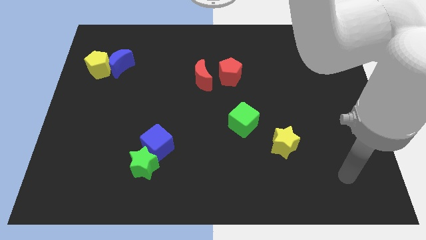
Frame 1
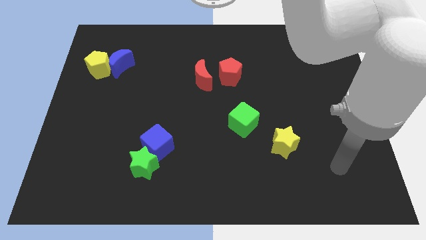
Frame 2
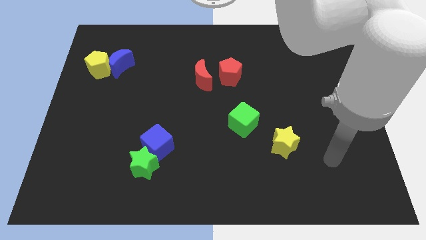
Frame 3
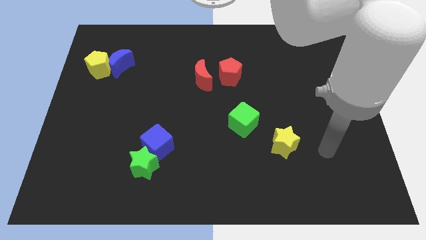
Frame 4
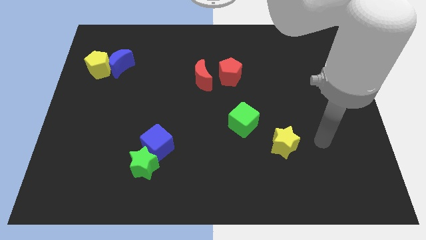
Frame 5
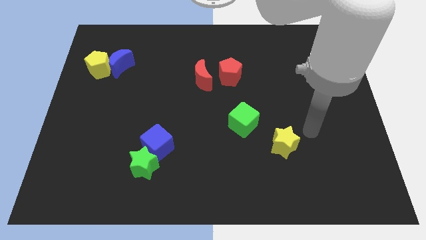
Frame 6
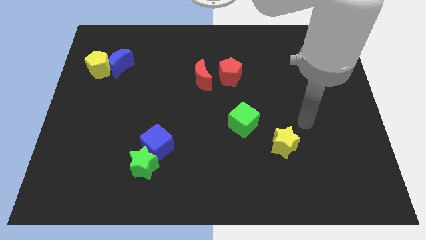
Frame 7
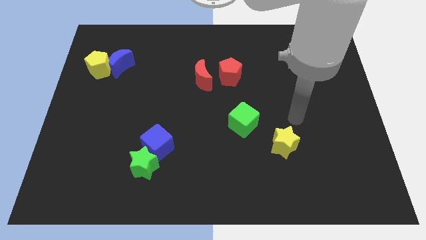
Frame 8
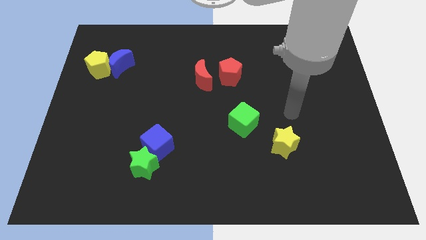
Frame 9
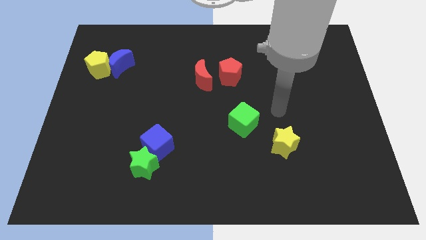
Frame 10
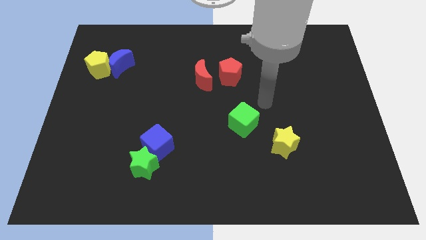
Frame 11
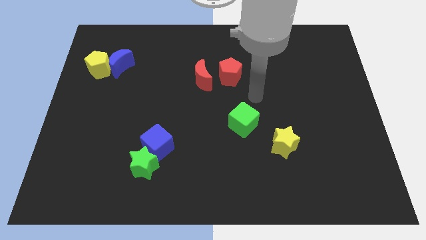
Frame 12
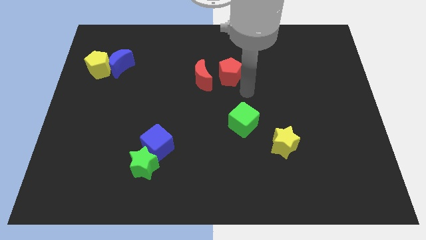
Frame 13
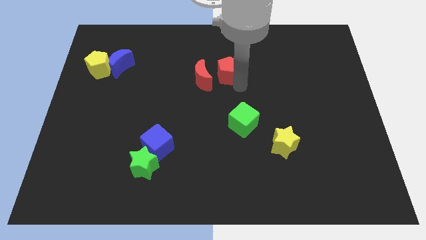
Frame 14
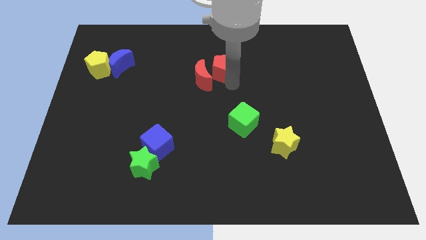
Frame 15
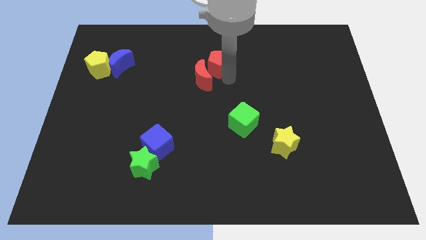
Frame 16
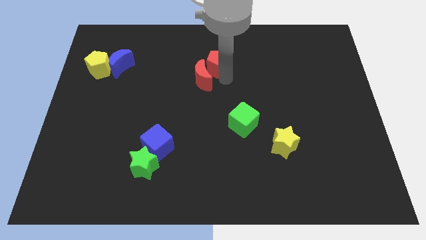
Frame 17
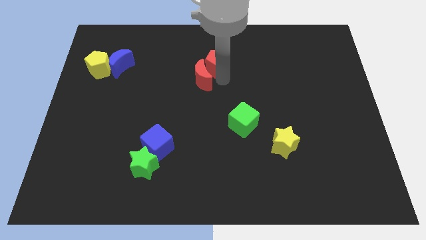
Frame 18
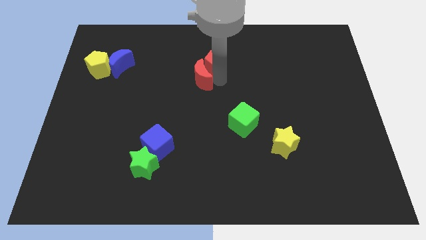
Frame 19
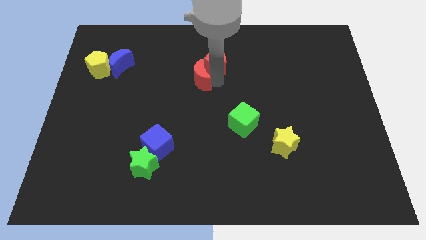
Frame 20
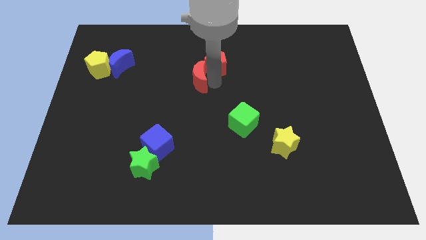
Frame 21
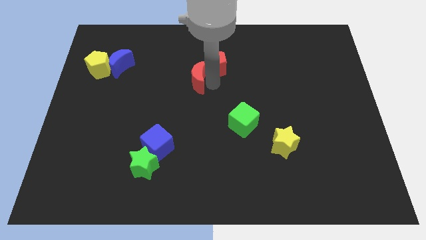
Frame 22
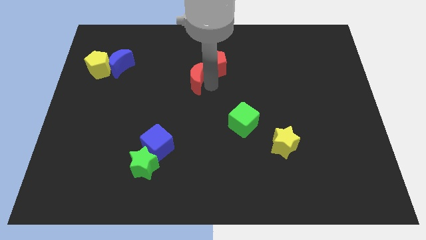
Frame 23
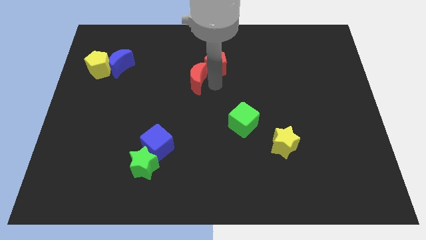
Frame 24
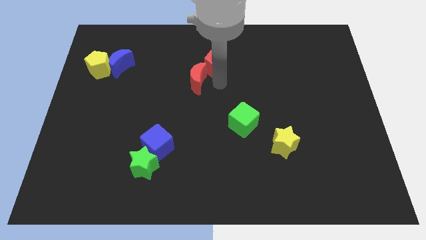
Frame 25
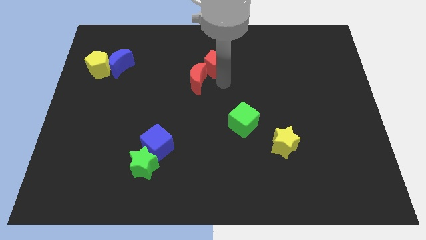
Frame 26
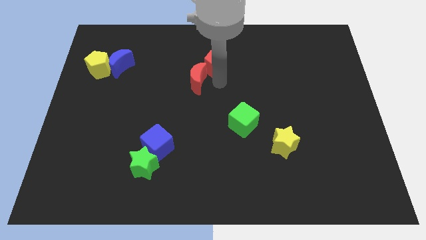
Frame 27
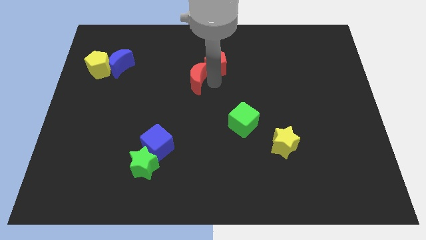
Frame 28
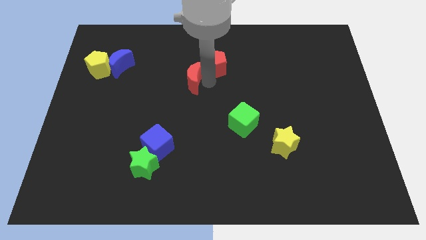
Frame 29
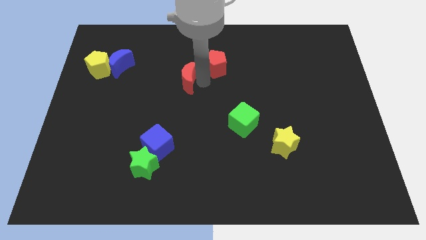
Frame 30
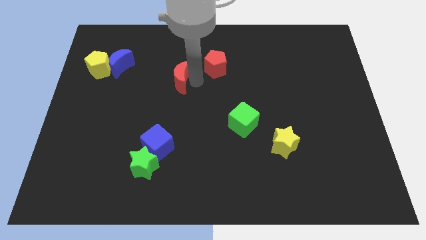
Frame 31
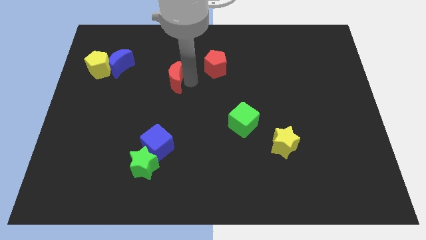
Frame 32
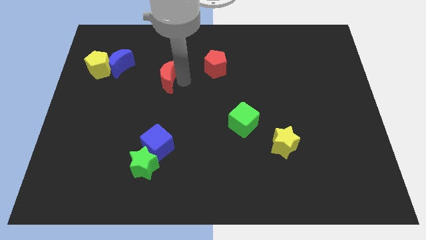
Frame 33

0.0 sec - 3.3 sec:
slightly push the red moon left

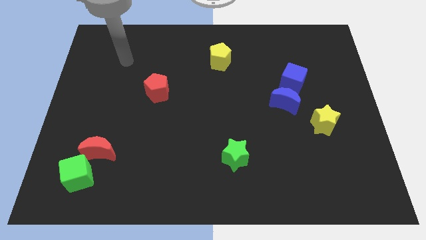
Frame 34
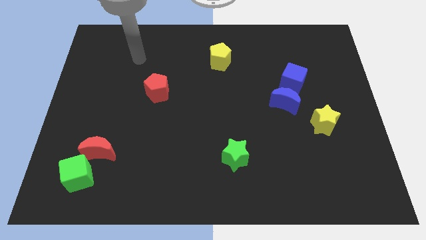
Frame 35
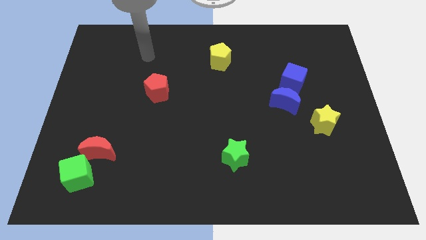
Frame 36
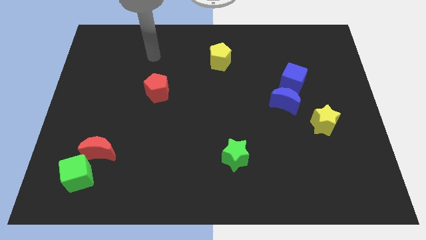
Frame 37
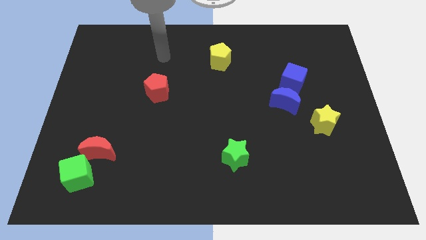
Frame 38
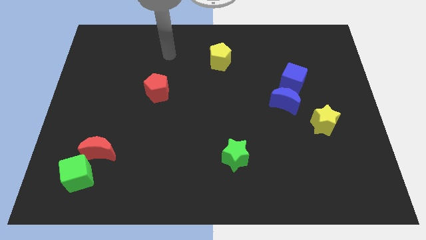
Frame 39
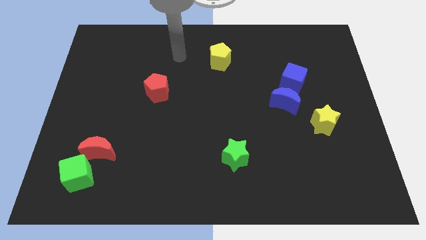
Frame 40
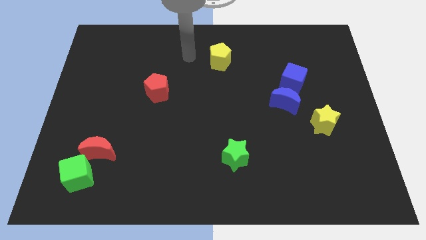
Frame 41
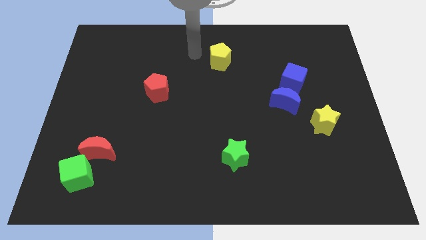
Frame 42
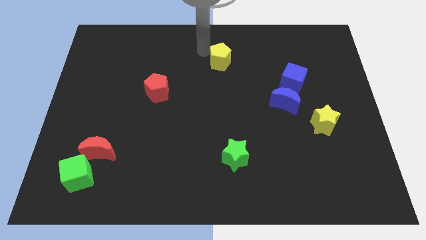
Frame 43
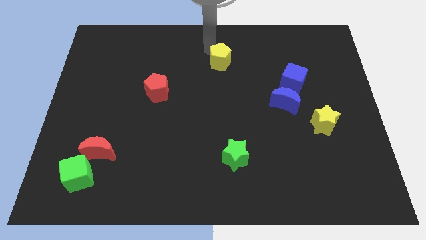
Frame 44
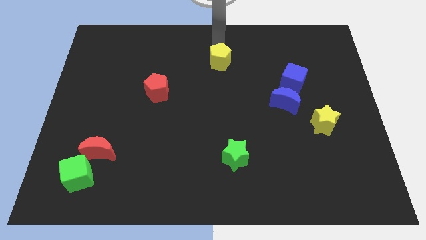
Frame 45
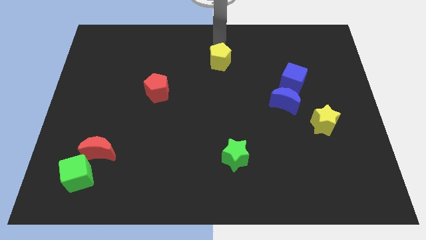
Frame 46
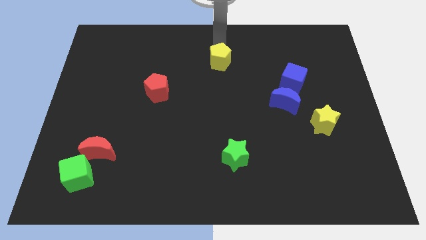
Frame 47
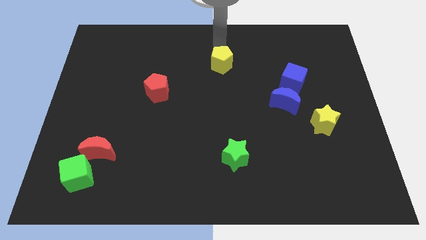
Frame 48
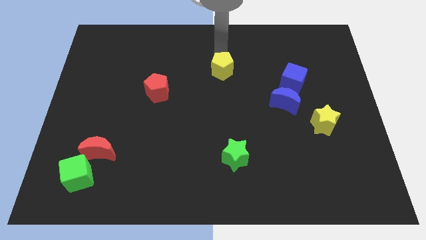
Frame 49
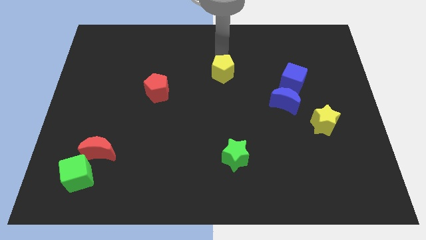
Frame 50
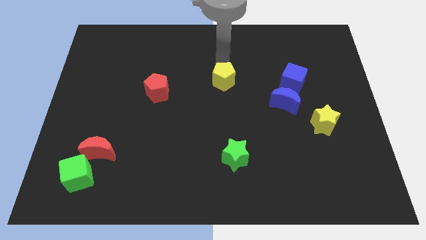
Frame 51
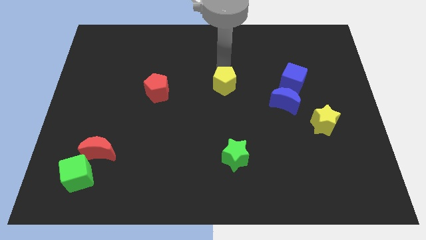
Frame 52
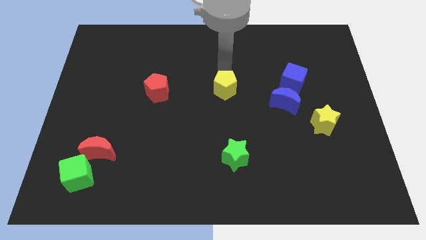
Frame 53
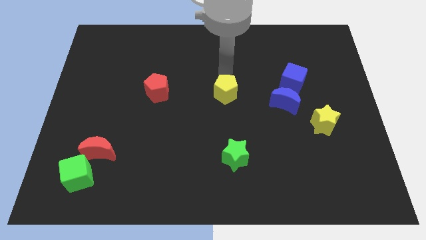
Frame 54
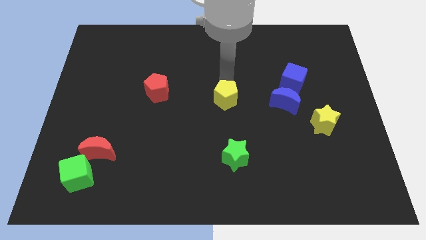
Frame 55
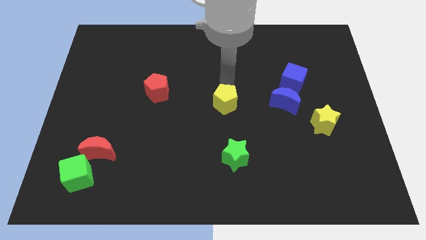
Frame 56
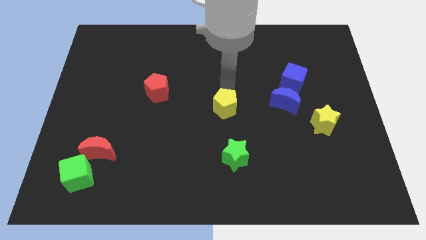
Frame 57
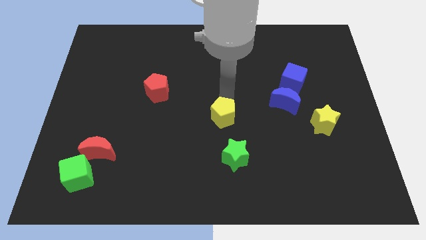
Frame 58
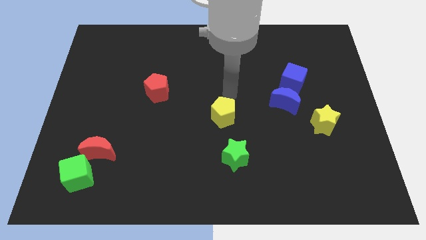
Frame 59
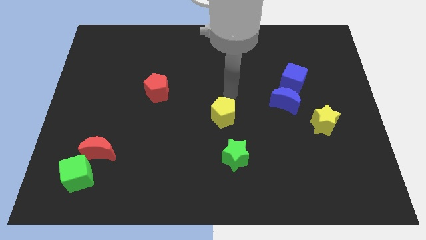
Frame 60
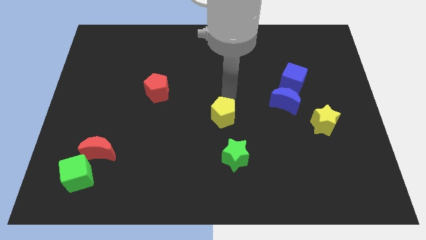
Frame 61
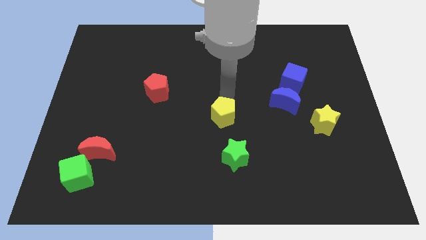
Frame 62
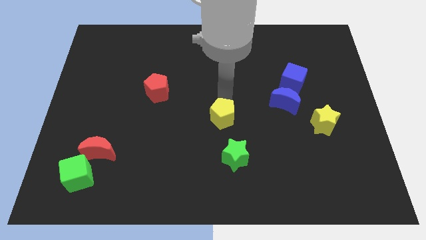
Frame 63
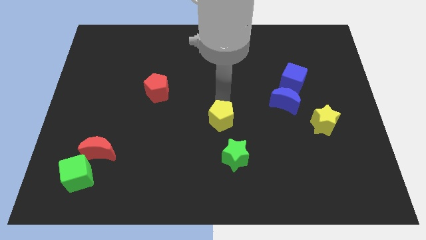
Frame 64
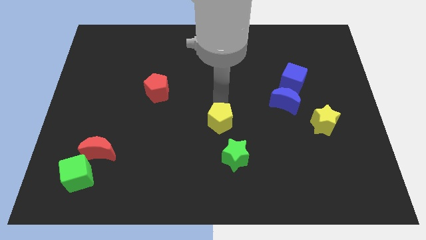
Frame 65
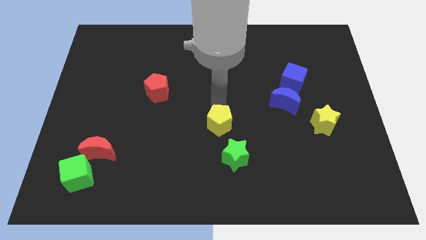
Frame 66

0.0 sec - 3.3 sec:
move the yellow pentagon downwards

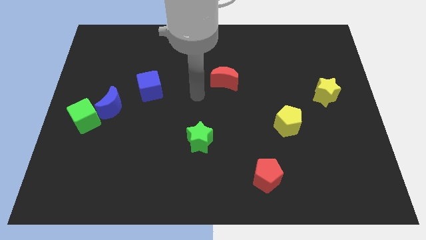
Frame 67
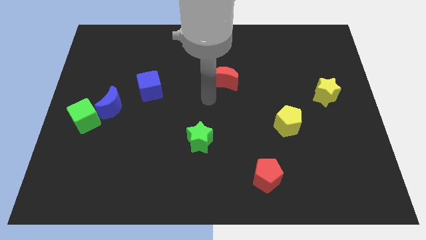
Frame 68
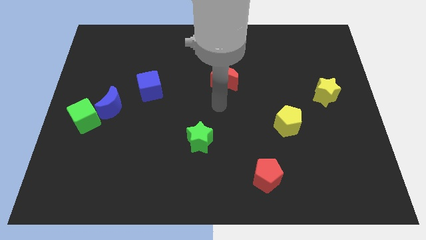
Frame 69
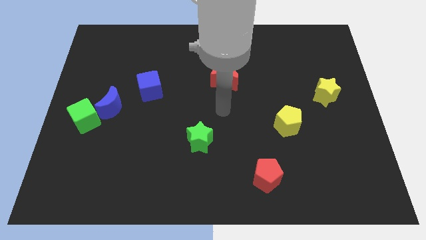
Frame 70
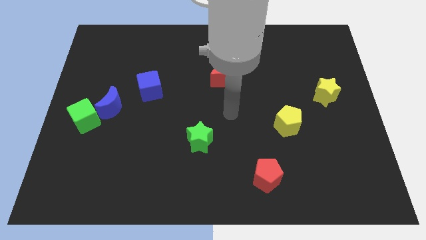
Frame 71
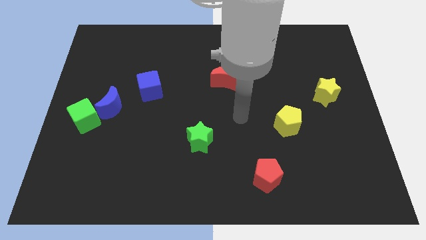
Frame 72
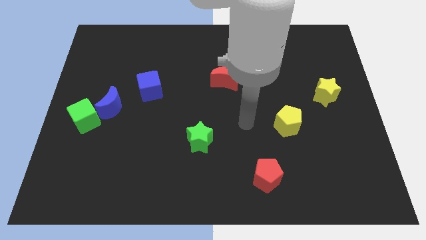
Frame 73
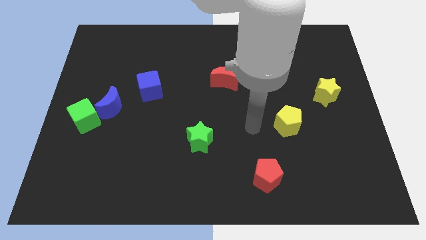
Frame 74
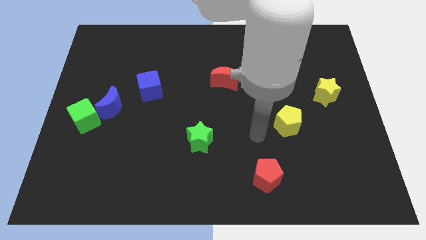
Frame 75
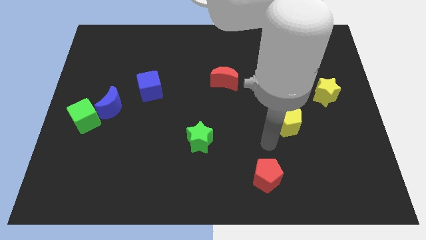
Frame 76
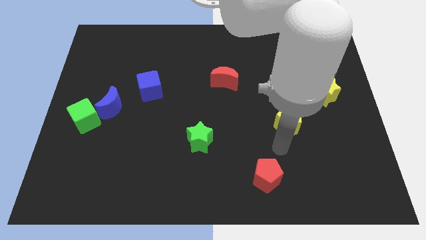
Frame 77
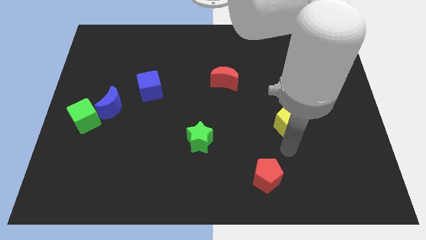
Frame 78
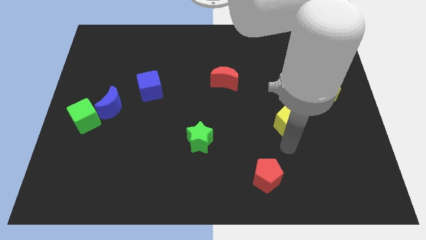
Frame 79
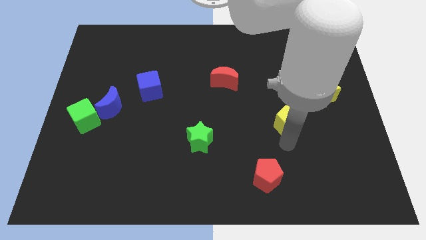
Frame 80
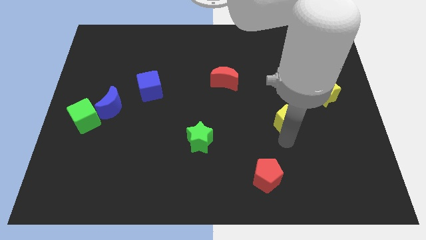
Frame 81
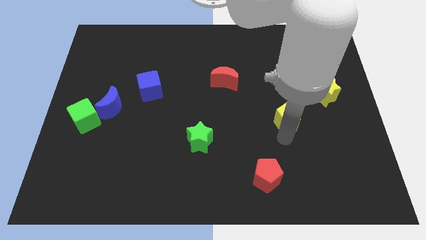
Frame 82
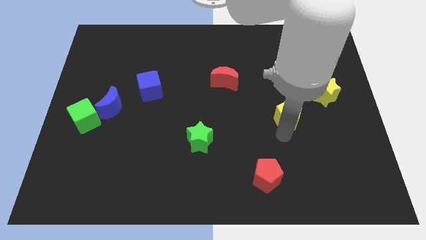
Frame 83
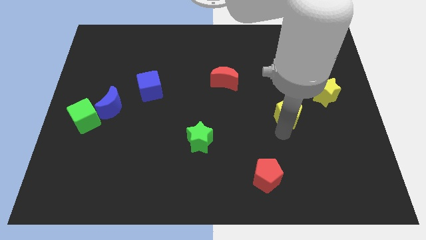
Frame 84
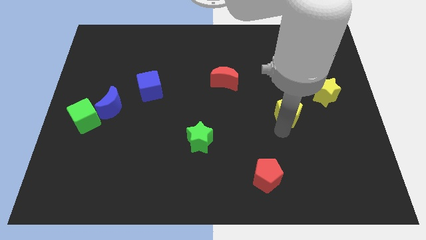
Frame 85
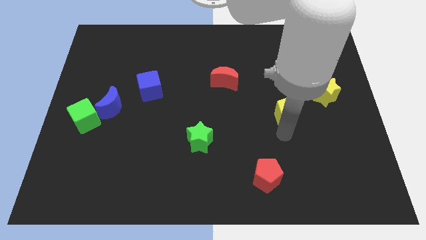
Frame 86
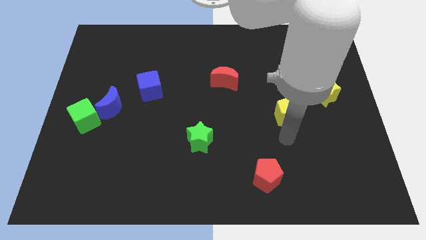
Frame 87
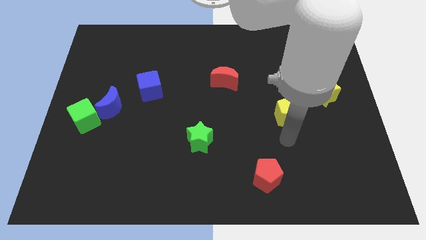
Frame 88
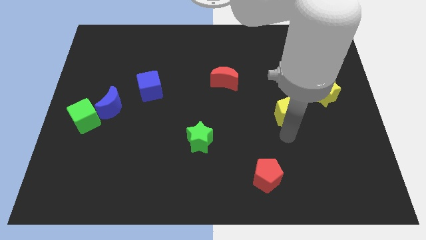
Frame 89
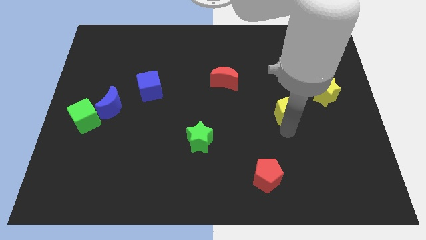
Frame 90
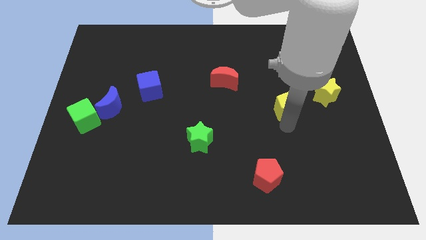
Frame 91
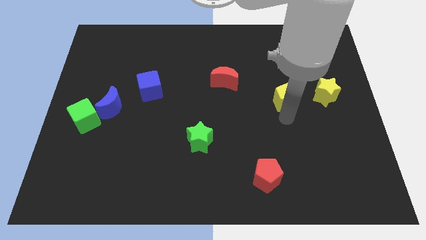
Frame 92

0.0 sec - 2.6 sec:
slide the yellow pentagon a bit up
